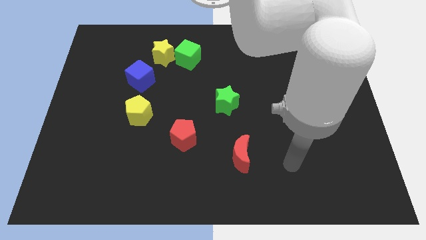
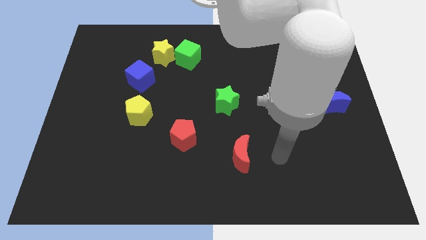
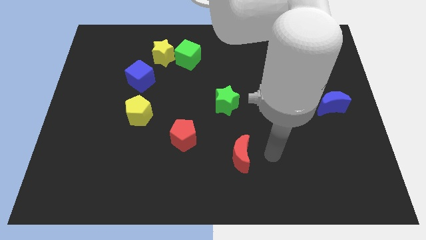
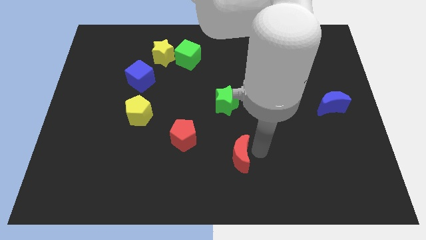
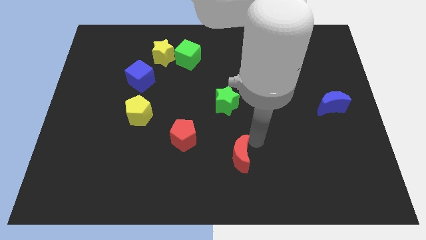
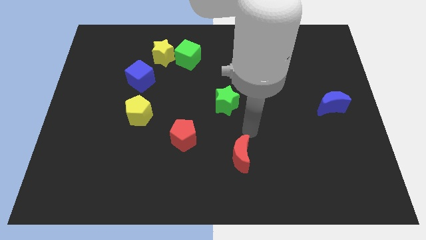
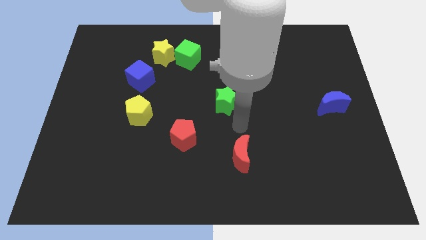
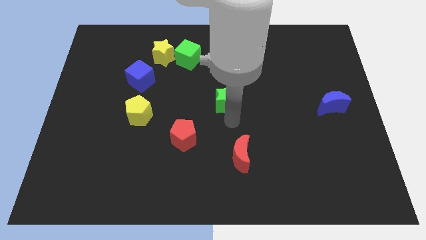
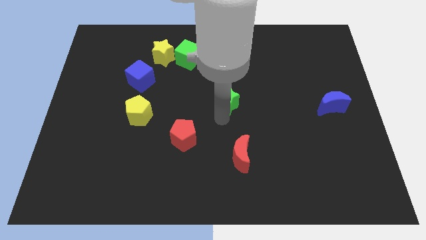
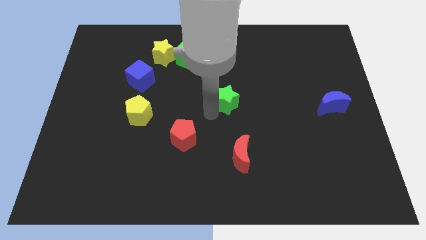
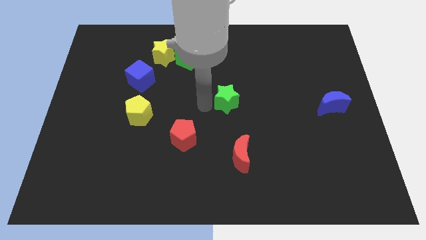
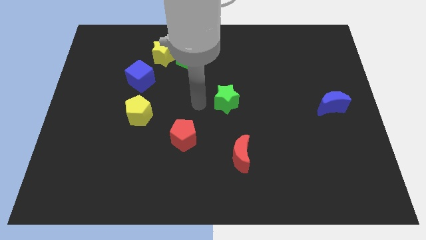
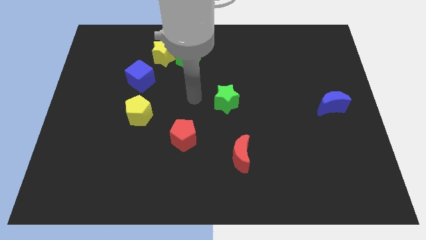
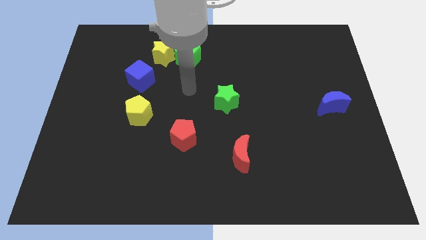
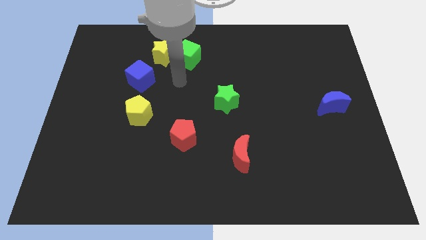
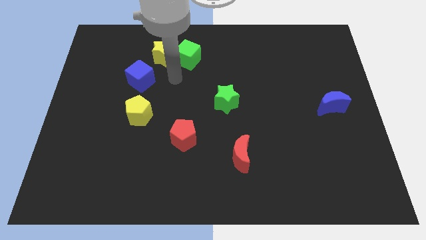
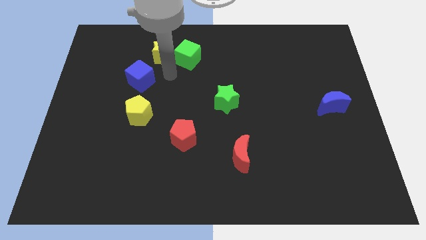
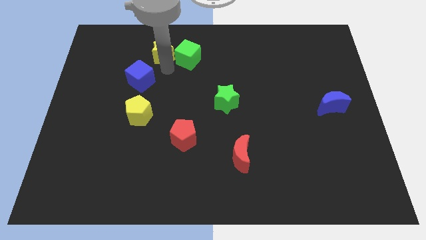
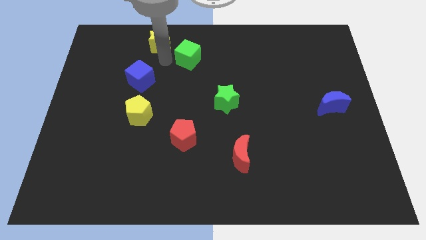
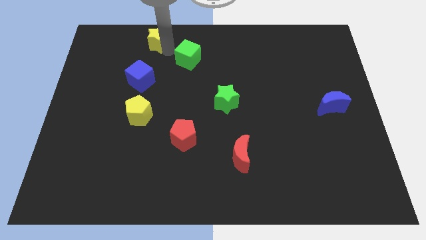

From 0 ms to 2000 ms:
move the green cube away from the yellow star

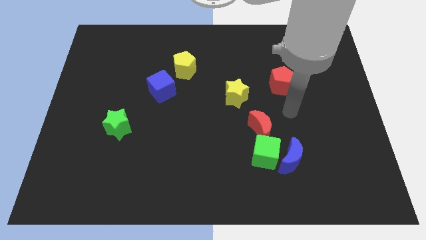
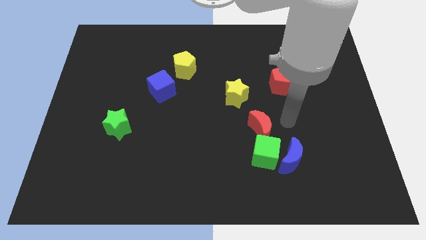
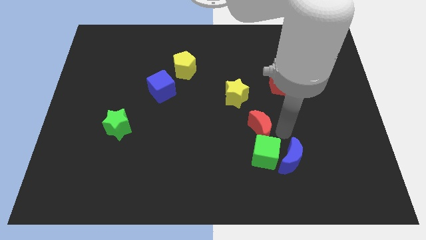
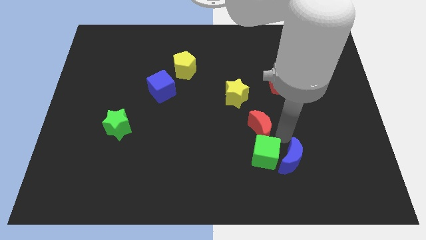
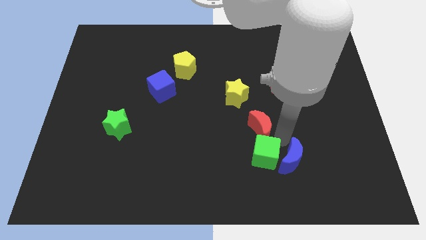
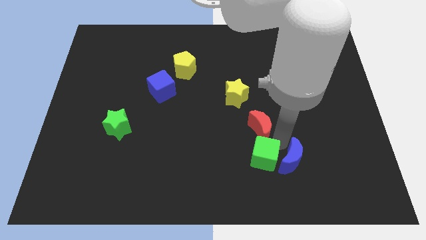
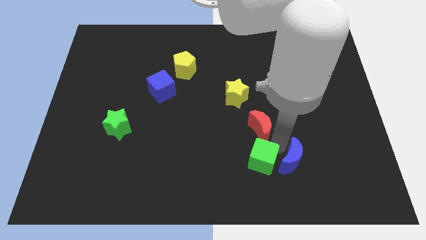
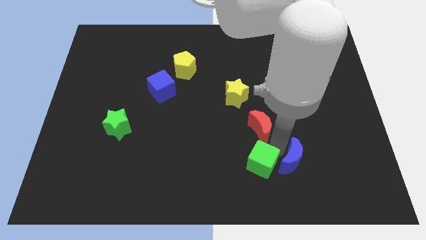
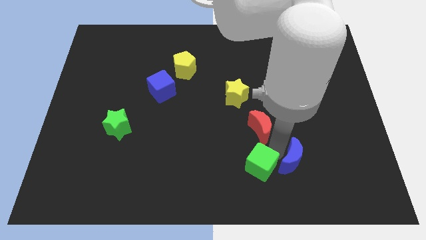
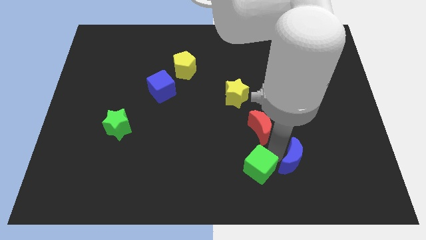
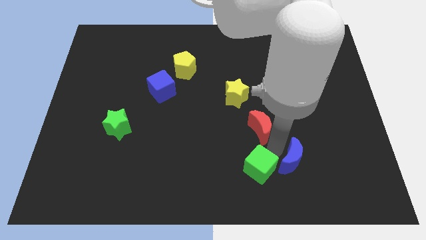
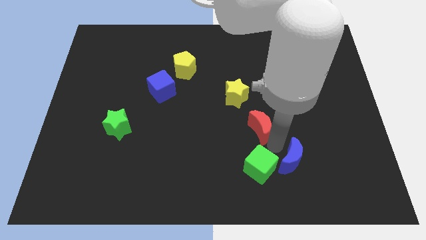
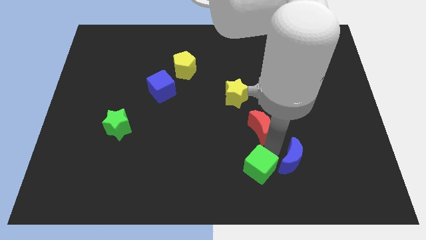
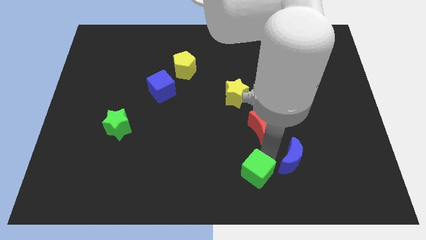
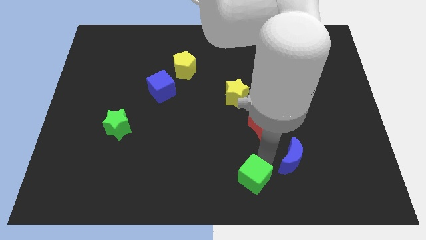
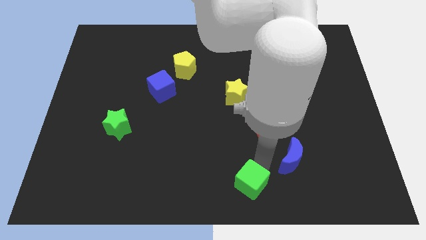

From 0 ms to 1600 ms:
move the green cube away from the blue moon and red moon

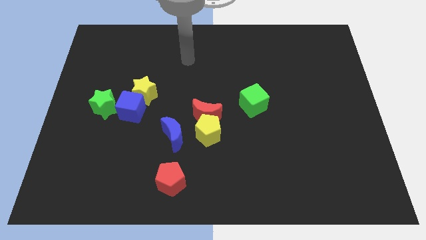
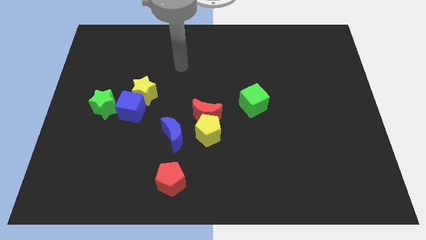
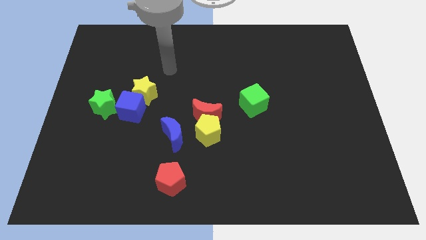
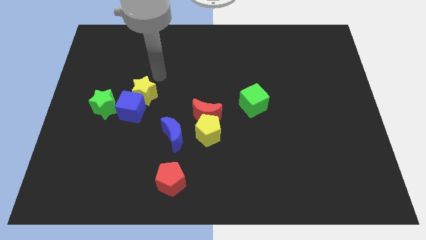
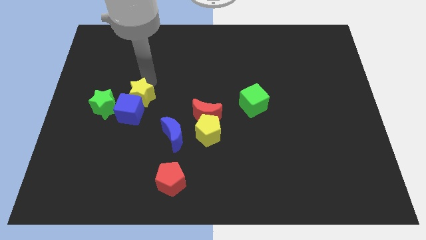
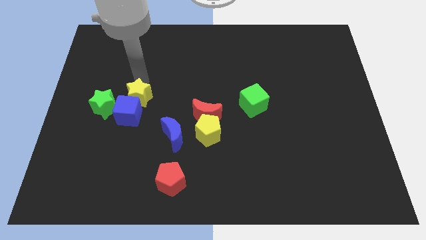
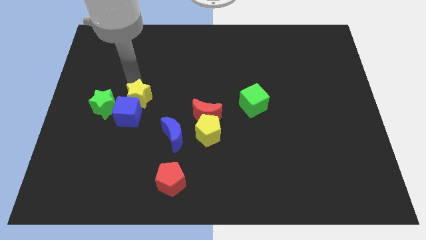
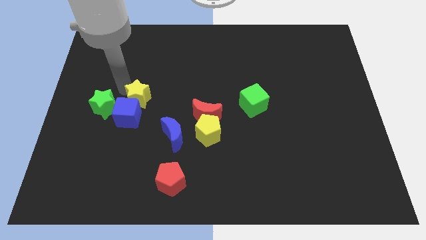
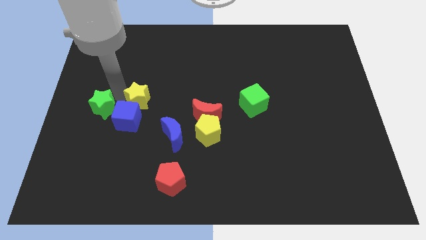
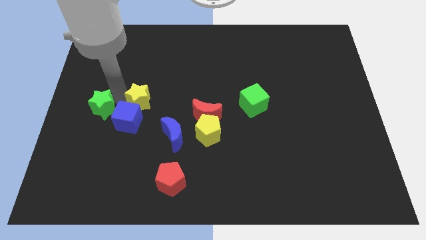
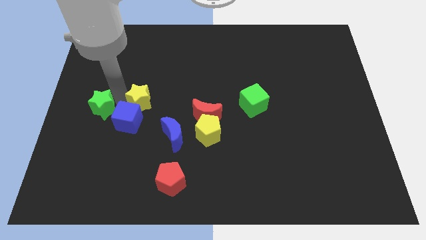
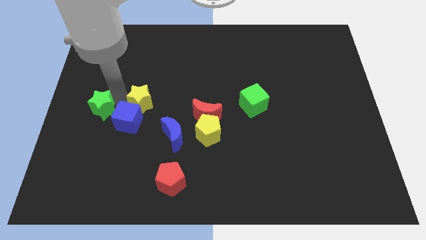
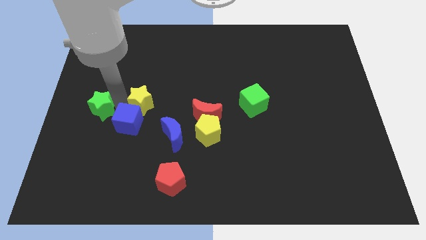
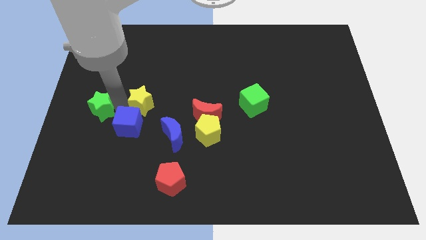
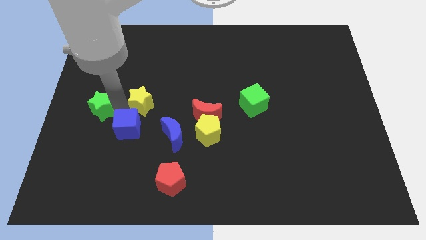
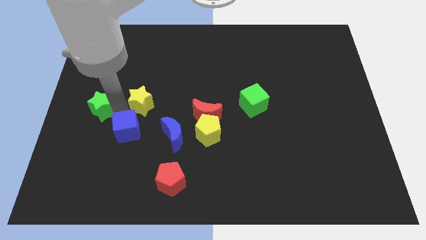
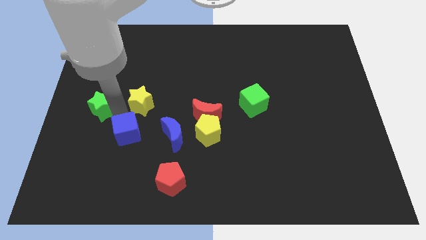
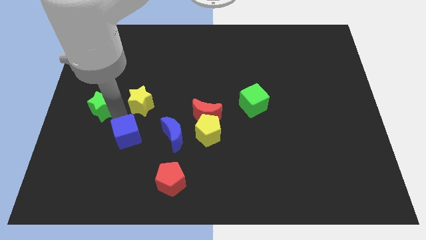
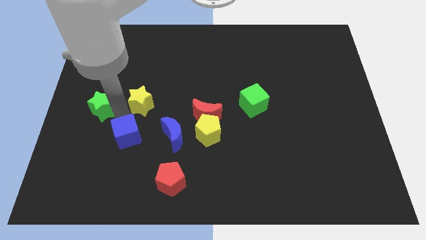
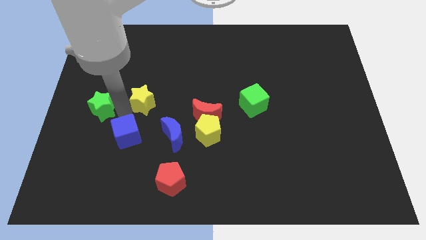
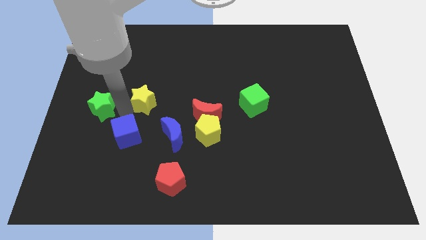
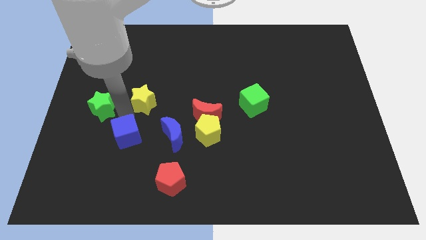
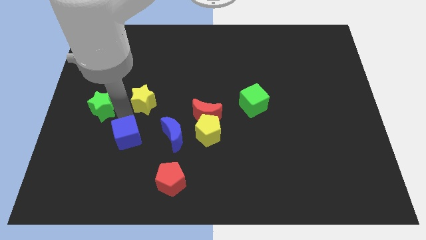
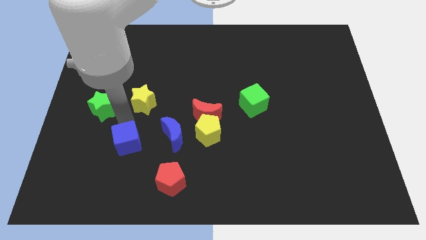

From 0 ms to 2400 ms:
separate the blue cube from the yellow star and green star

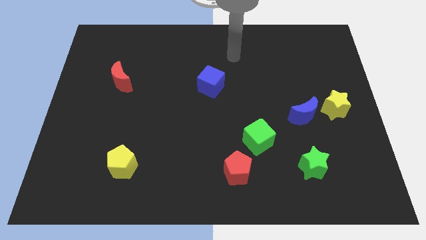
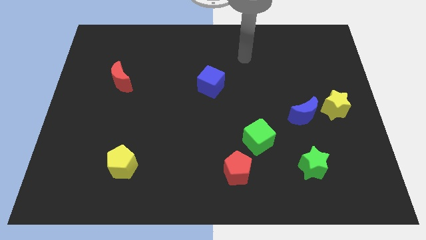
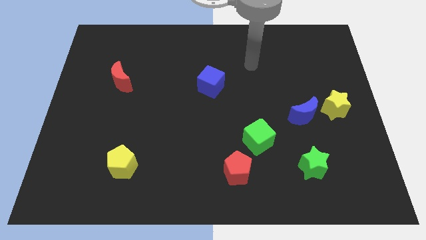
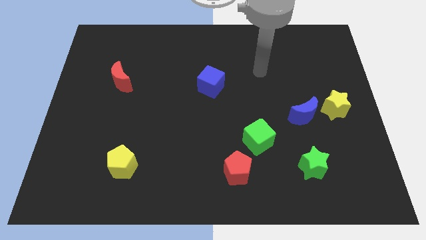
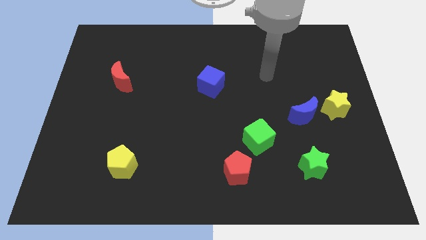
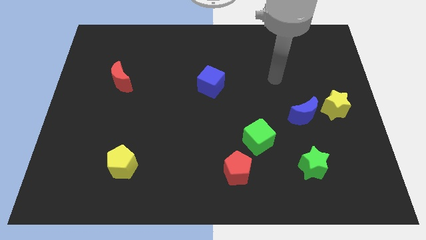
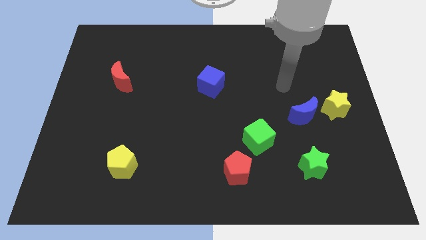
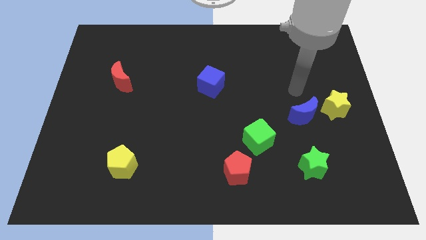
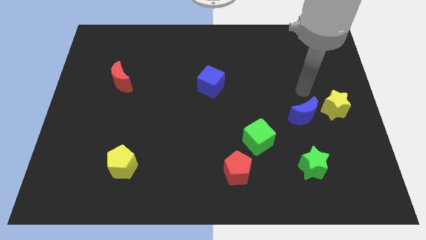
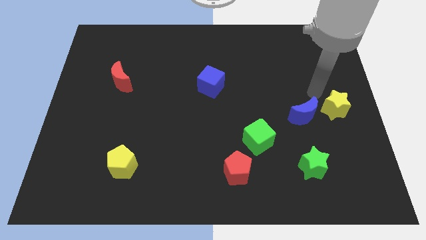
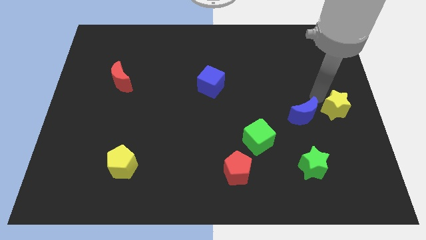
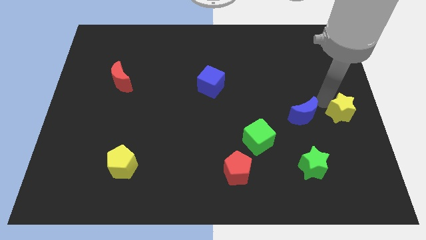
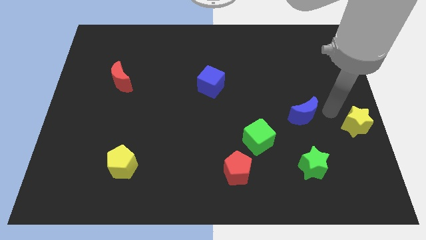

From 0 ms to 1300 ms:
pull the blue moon apart from the yellow star

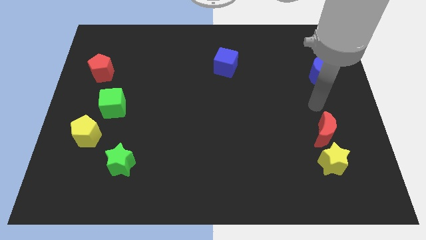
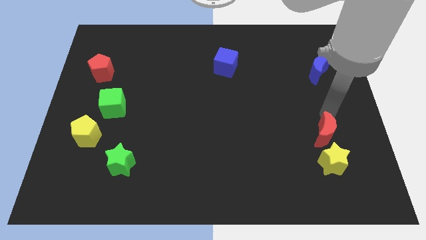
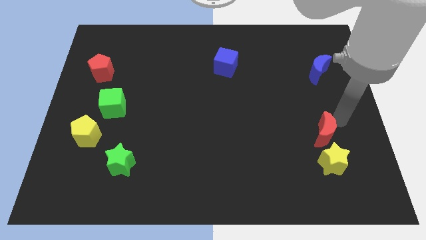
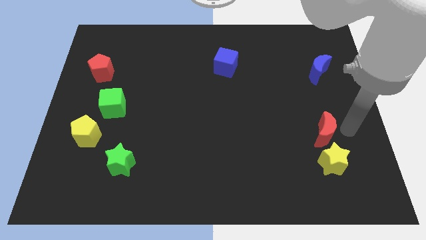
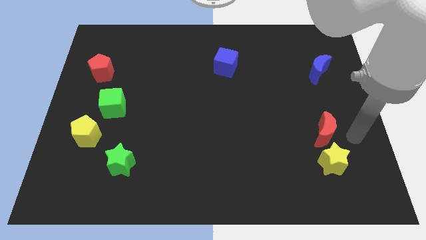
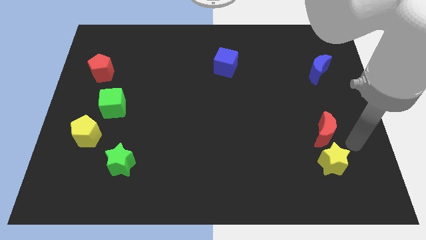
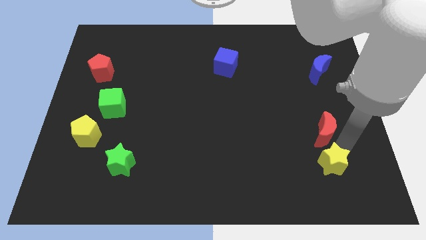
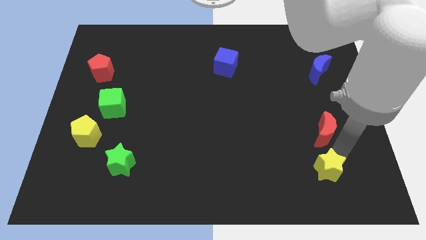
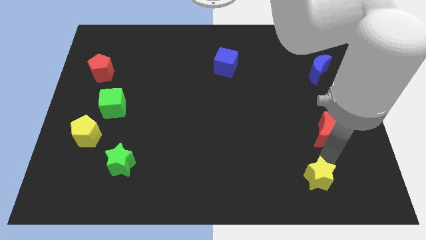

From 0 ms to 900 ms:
pull the red moon apart from the yellow star

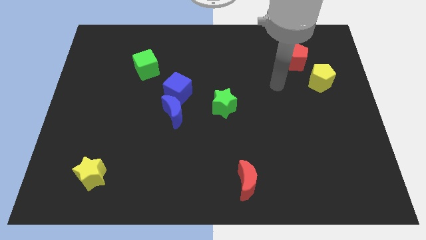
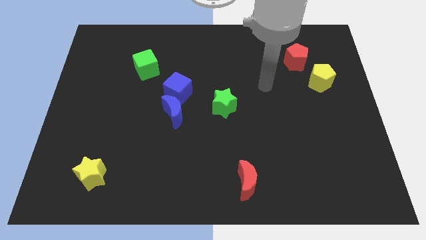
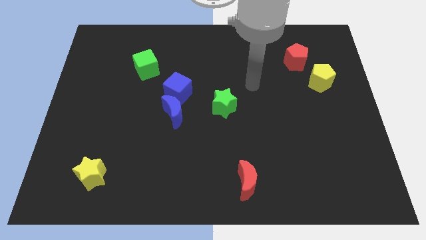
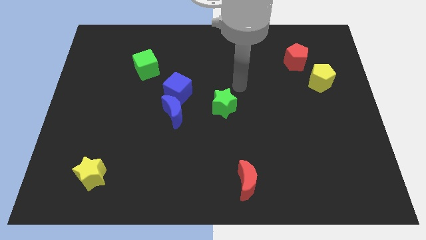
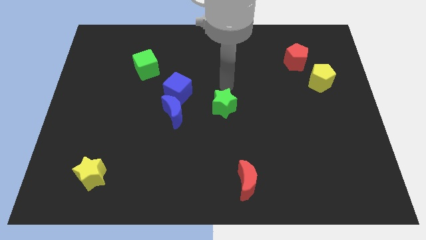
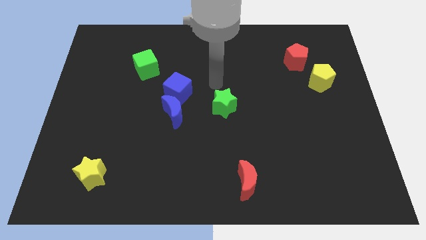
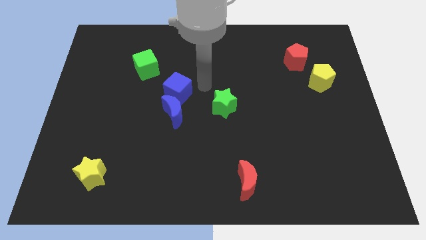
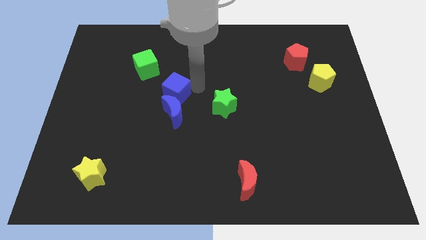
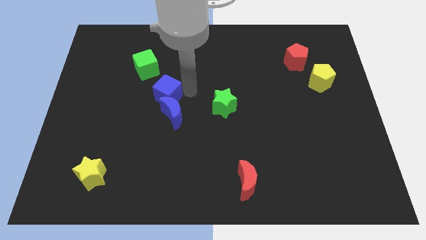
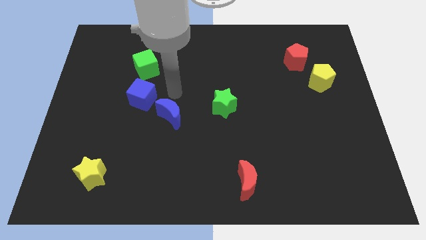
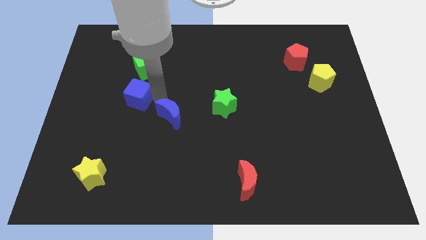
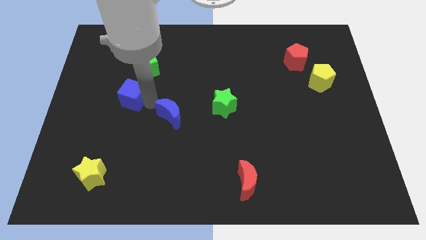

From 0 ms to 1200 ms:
move the blue moon away from the blue cube

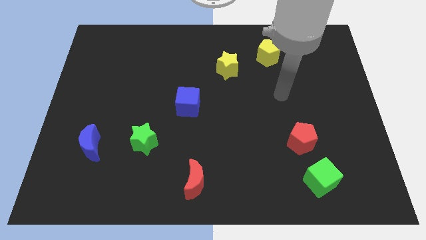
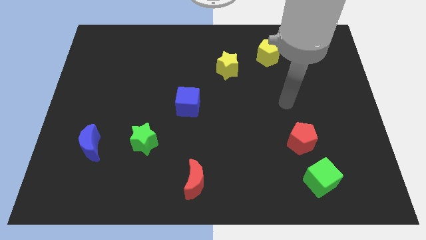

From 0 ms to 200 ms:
move the red pentagon away from the green cube
